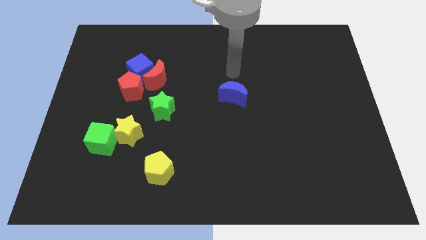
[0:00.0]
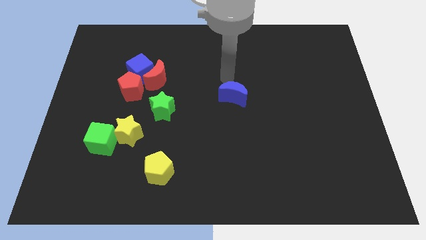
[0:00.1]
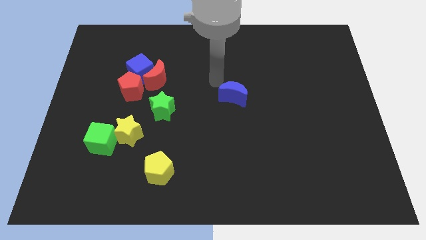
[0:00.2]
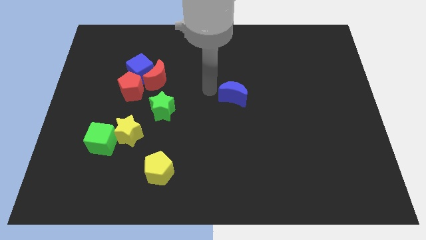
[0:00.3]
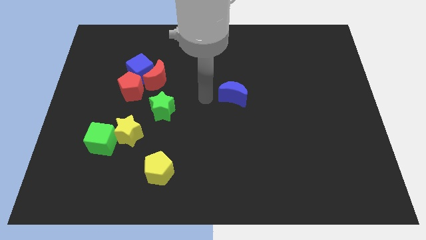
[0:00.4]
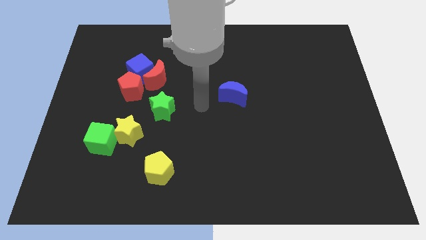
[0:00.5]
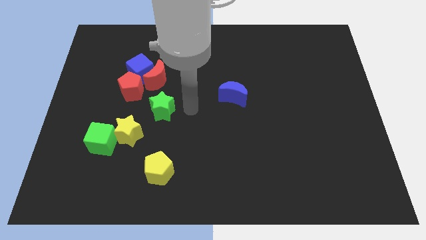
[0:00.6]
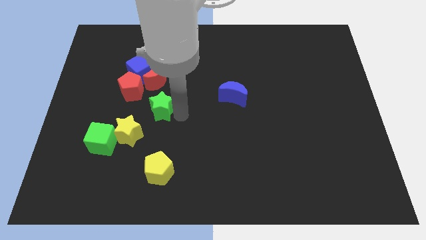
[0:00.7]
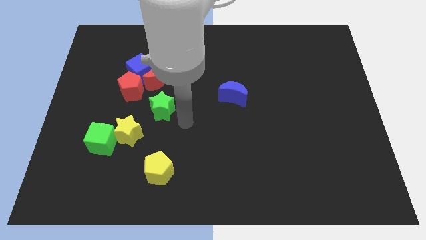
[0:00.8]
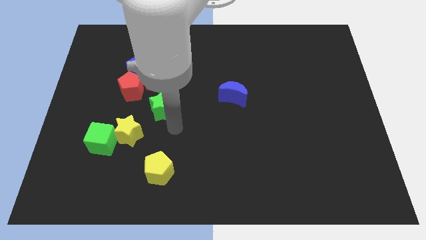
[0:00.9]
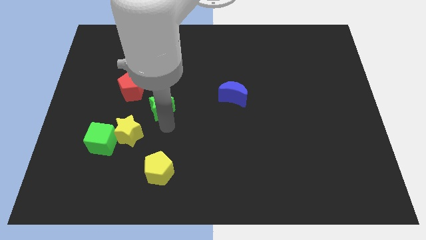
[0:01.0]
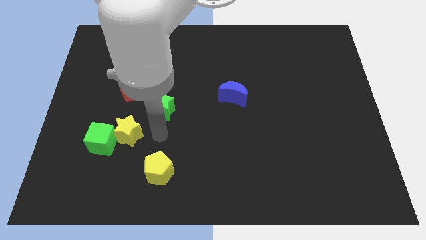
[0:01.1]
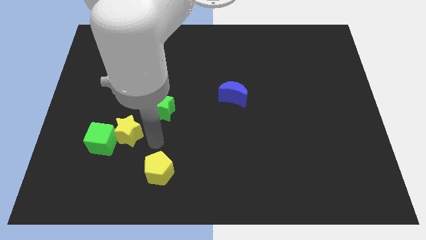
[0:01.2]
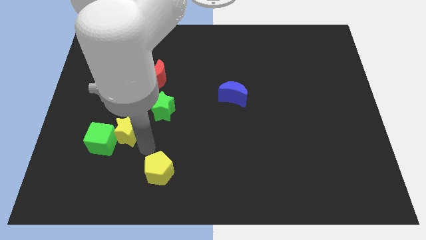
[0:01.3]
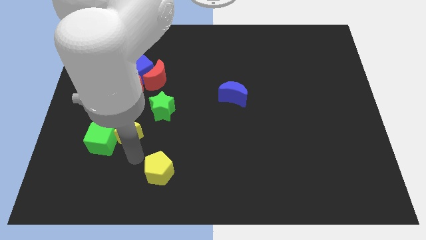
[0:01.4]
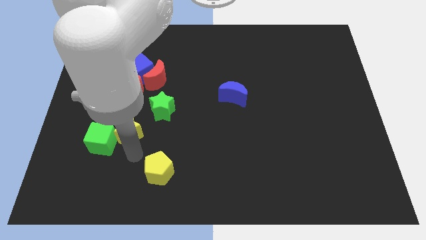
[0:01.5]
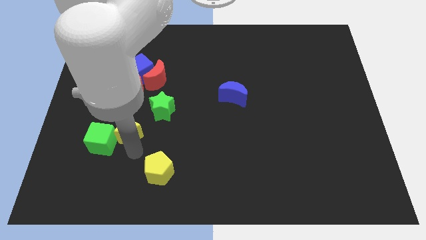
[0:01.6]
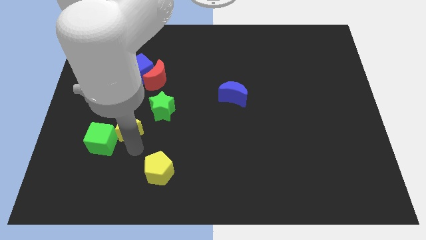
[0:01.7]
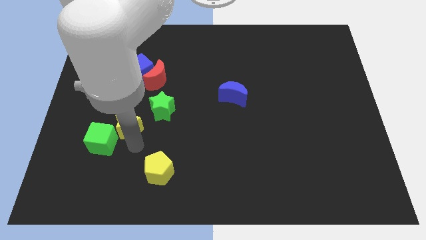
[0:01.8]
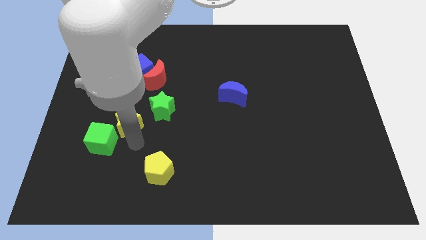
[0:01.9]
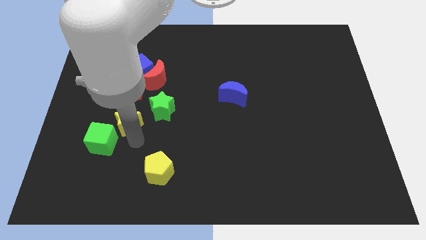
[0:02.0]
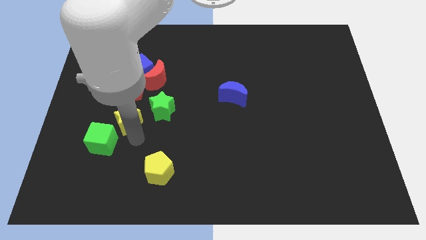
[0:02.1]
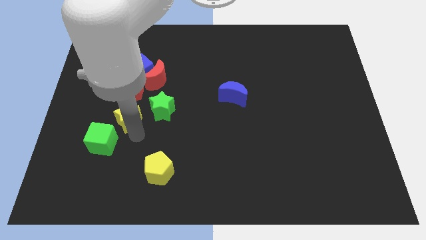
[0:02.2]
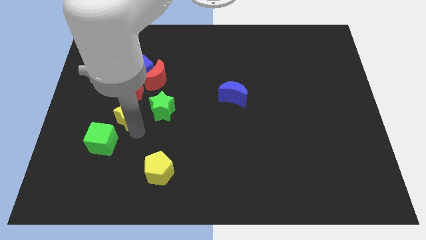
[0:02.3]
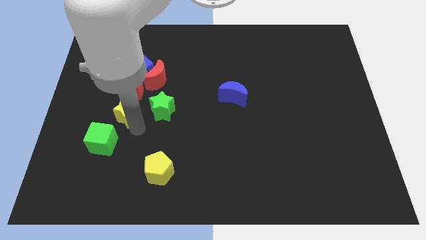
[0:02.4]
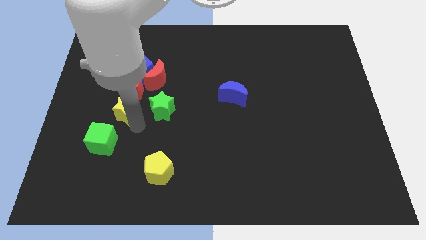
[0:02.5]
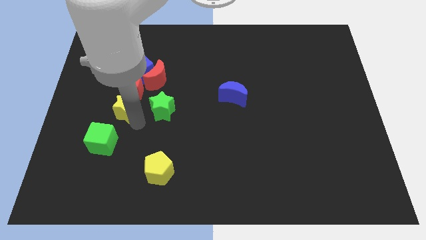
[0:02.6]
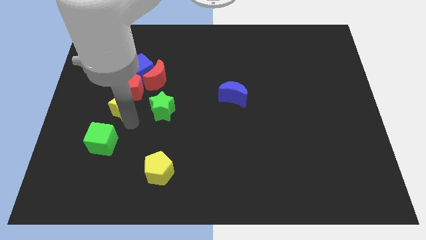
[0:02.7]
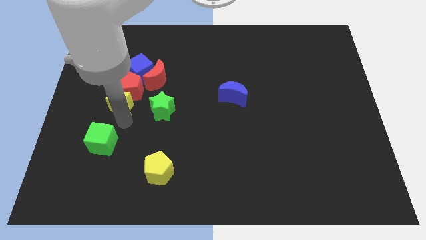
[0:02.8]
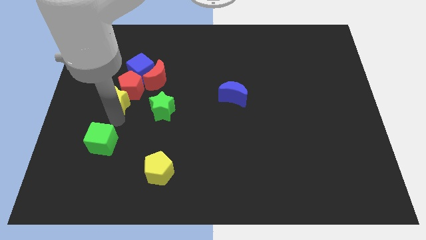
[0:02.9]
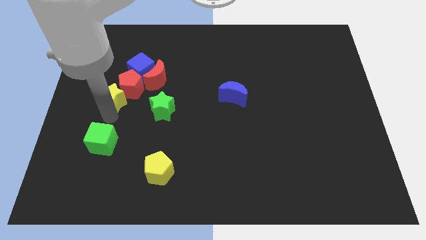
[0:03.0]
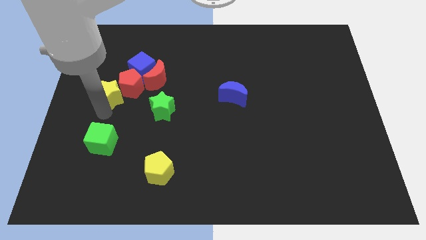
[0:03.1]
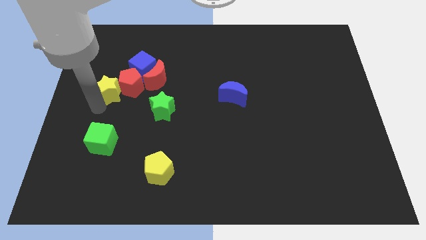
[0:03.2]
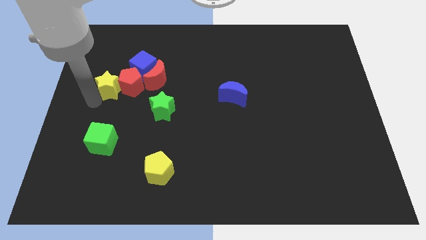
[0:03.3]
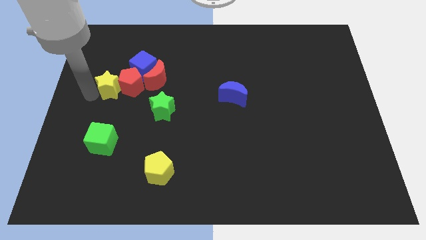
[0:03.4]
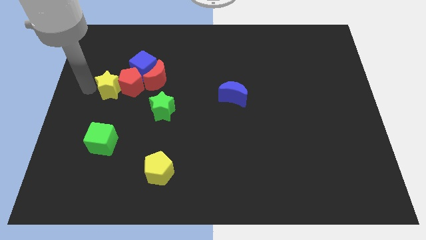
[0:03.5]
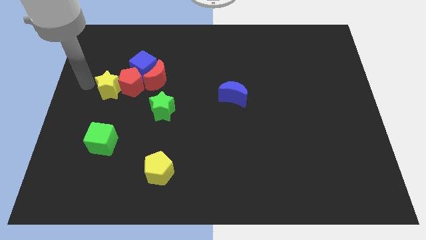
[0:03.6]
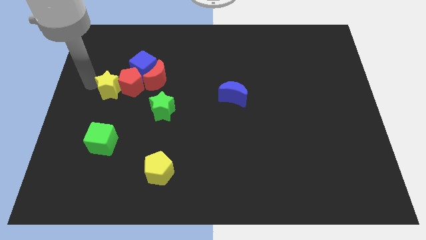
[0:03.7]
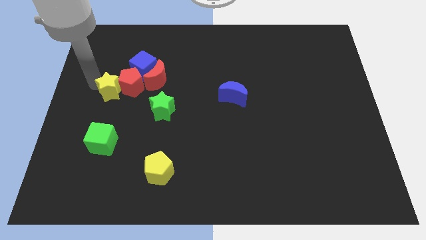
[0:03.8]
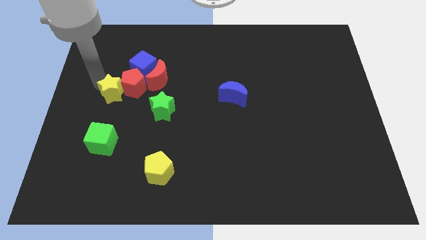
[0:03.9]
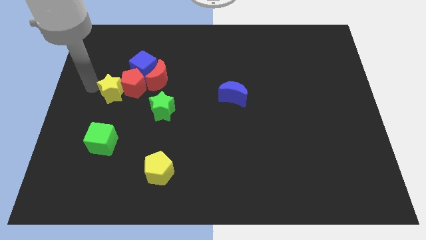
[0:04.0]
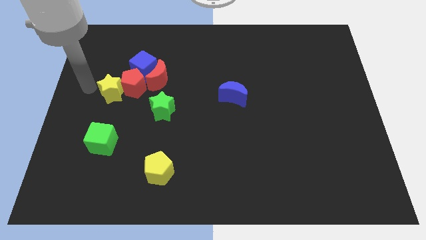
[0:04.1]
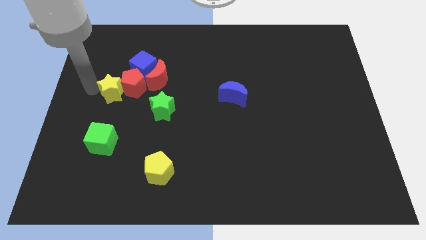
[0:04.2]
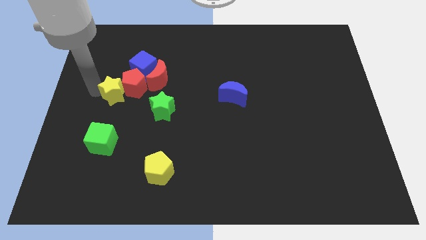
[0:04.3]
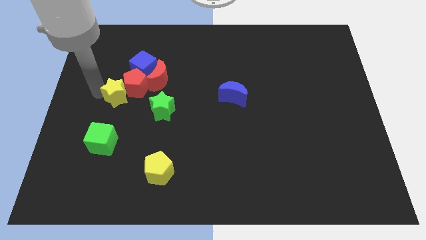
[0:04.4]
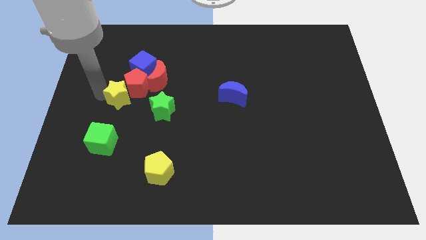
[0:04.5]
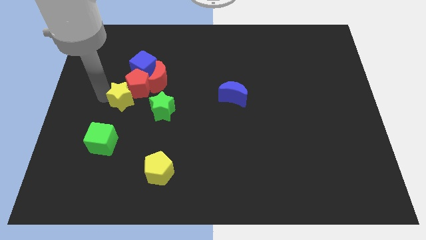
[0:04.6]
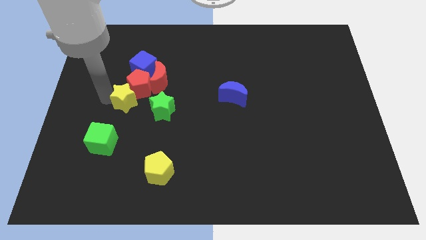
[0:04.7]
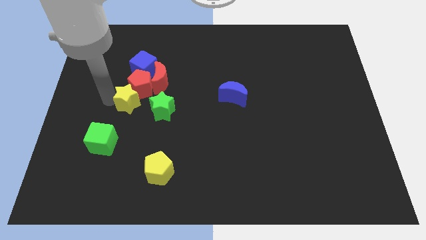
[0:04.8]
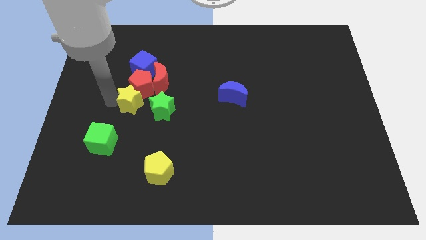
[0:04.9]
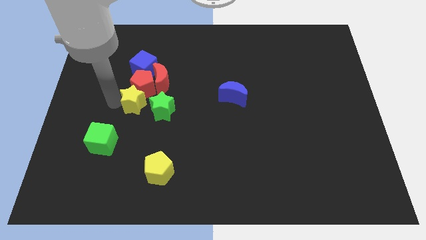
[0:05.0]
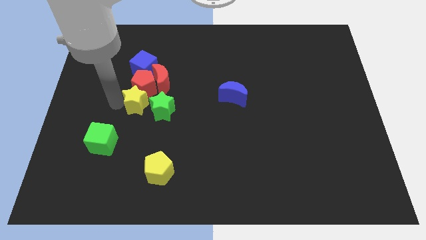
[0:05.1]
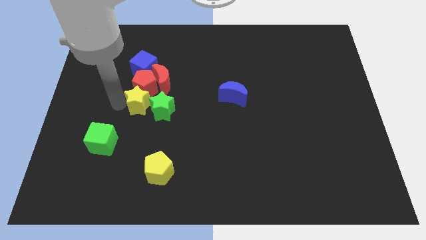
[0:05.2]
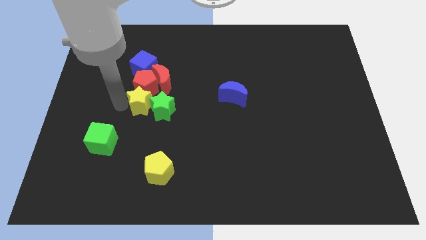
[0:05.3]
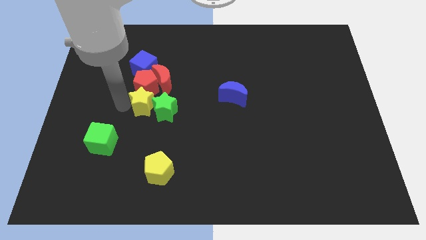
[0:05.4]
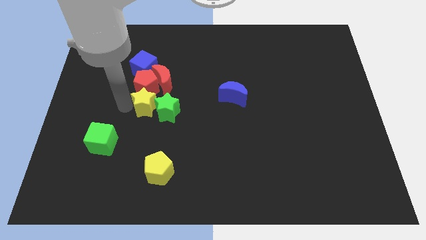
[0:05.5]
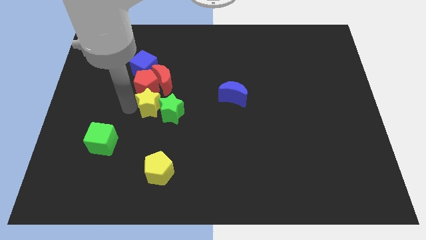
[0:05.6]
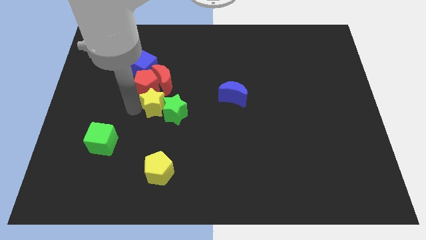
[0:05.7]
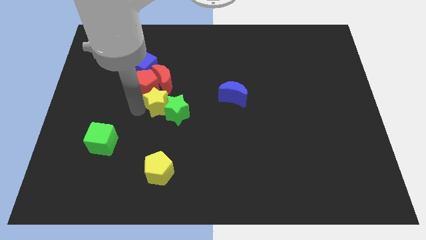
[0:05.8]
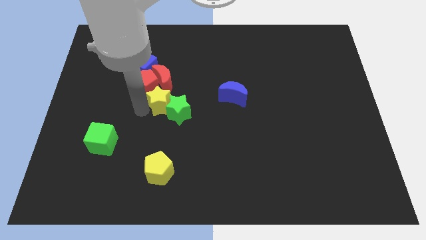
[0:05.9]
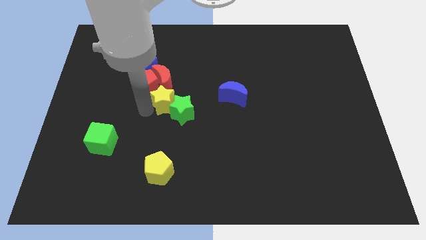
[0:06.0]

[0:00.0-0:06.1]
slide the yellow star just right of the red pentagon

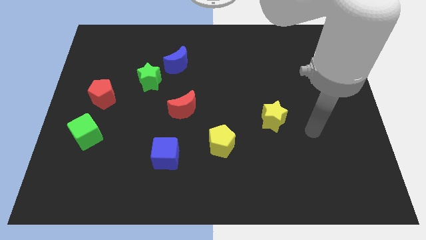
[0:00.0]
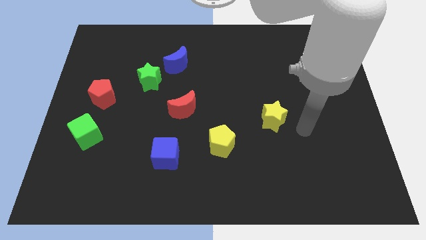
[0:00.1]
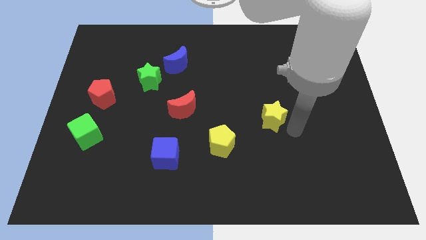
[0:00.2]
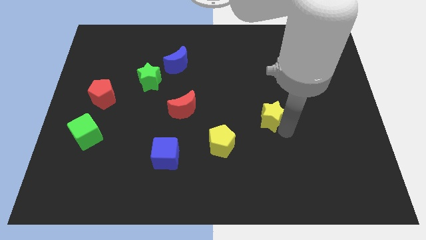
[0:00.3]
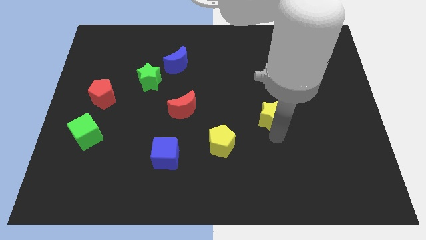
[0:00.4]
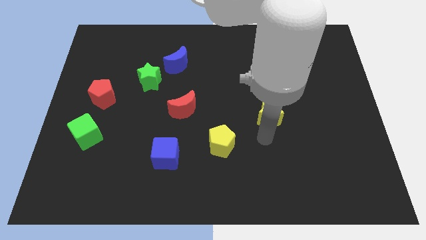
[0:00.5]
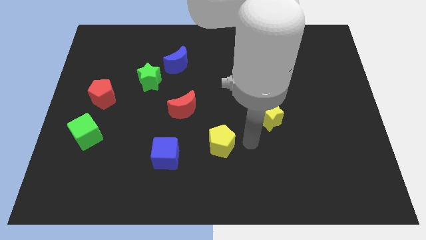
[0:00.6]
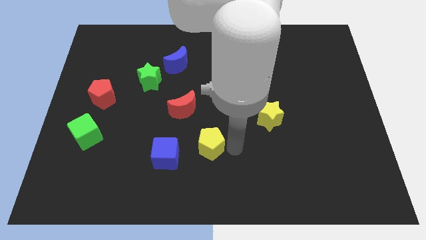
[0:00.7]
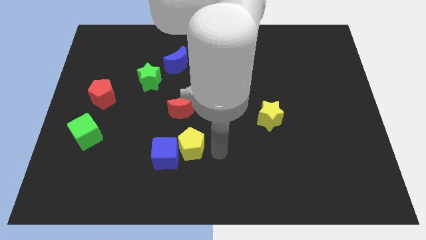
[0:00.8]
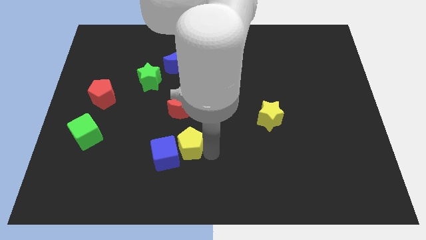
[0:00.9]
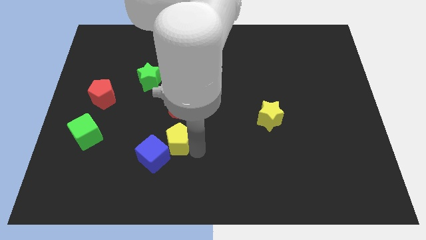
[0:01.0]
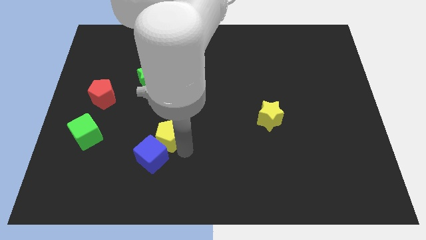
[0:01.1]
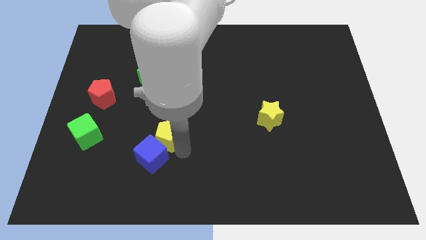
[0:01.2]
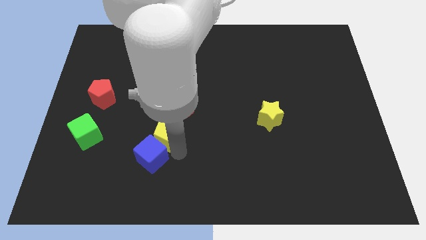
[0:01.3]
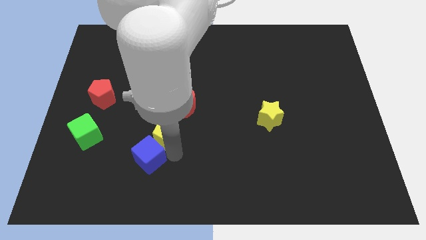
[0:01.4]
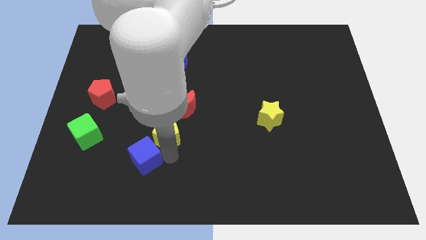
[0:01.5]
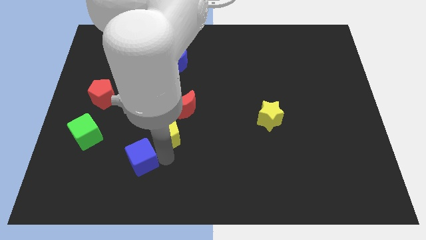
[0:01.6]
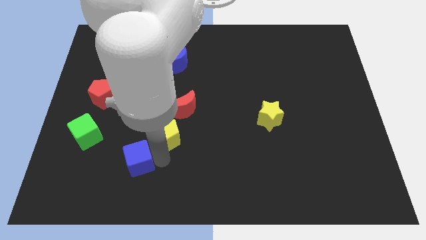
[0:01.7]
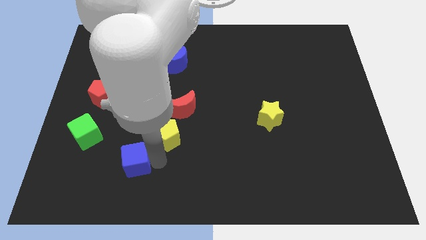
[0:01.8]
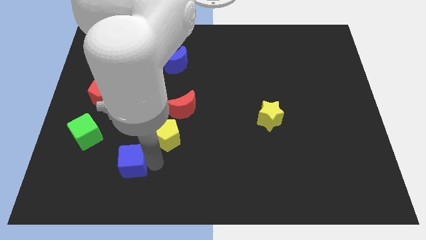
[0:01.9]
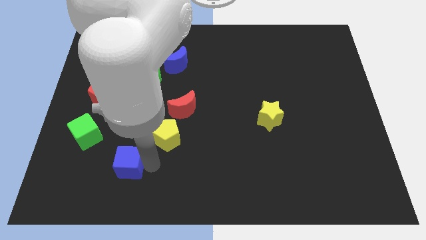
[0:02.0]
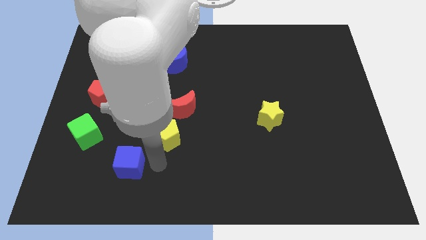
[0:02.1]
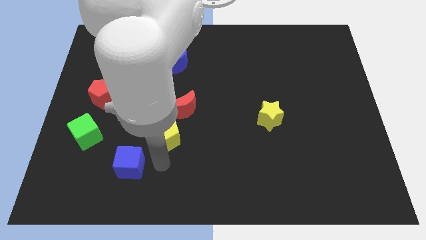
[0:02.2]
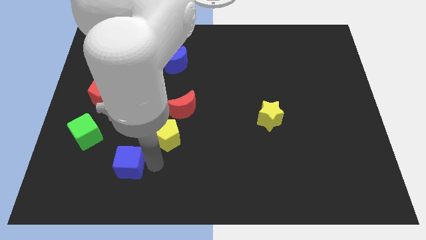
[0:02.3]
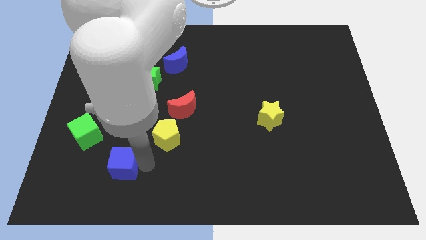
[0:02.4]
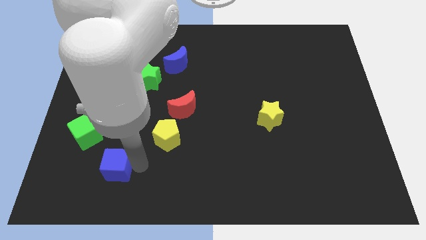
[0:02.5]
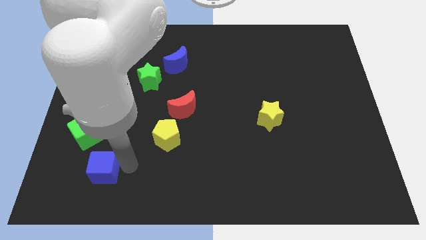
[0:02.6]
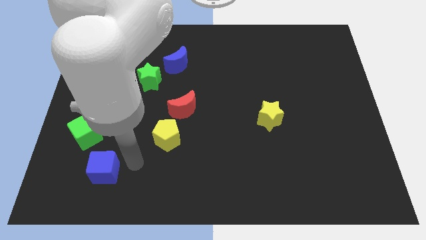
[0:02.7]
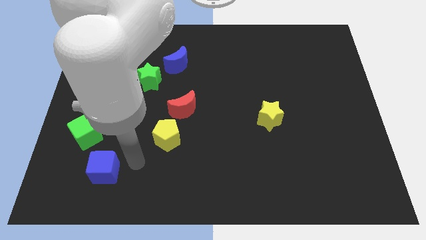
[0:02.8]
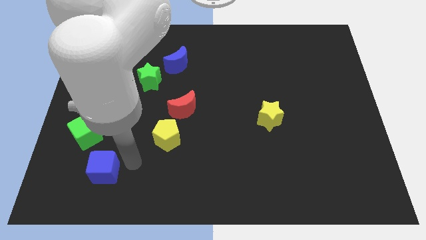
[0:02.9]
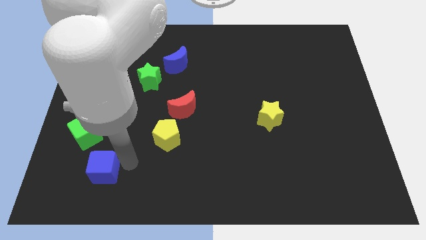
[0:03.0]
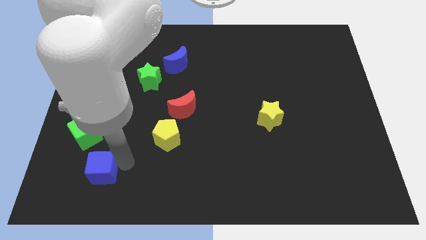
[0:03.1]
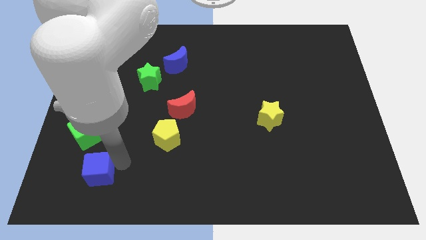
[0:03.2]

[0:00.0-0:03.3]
slide the blue cube below the green cube
